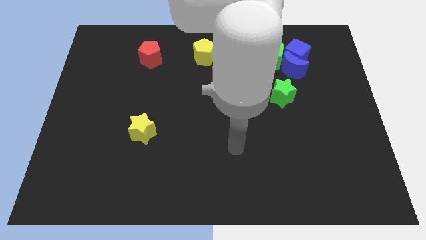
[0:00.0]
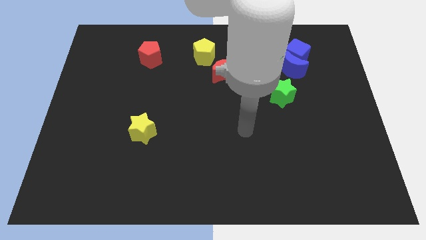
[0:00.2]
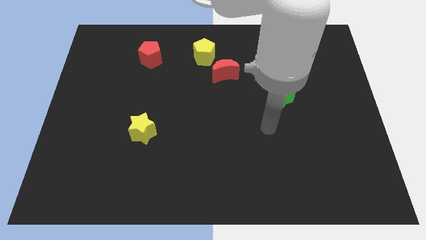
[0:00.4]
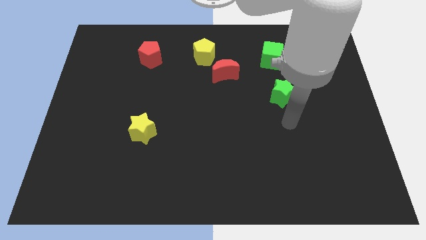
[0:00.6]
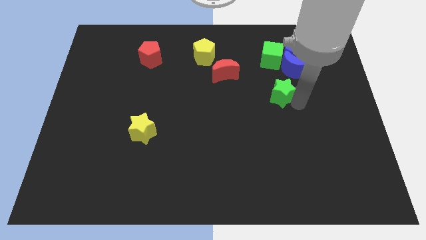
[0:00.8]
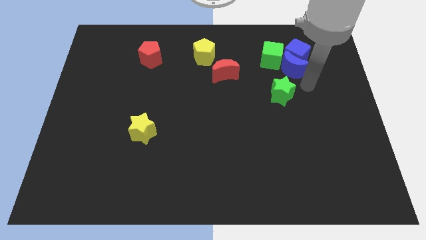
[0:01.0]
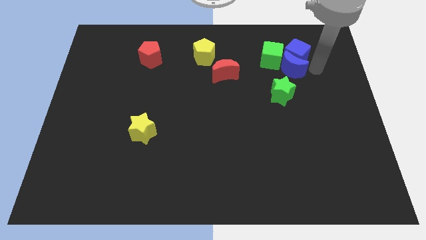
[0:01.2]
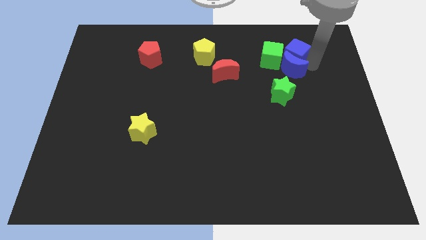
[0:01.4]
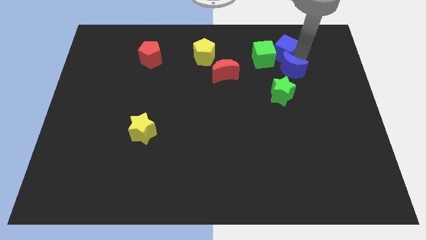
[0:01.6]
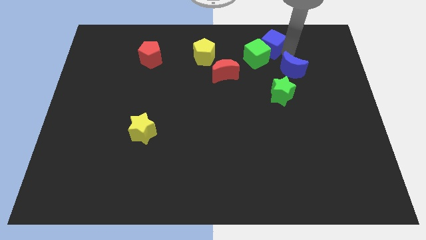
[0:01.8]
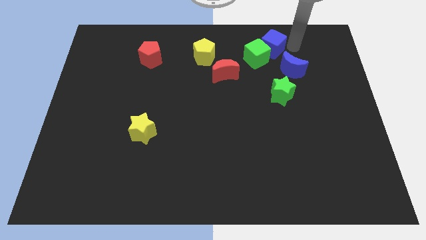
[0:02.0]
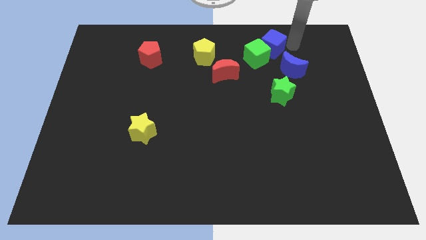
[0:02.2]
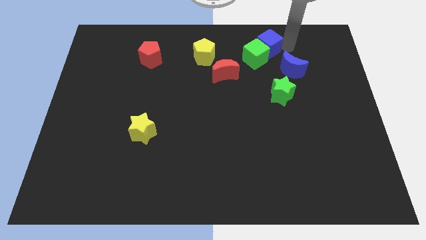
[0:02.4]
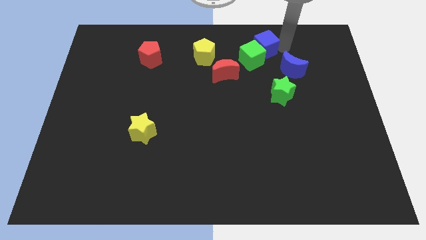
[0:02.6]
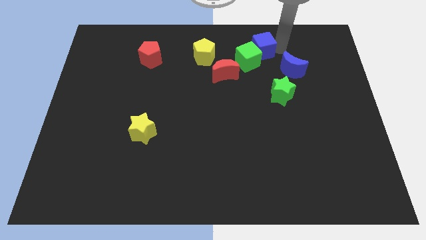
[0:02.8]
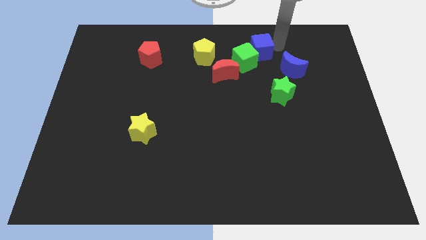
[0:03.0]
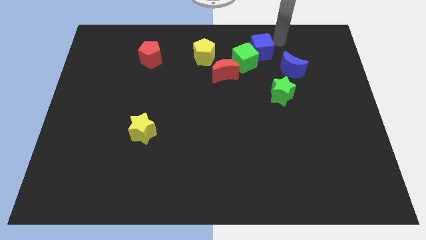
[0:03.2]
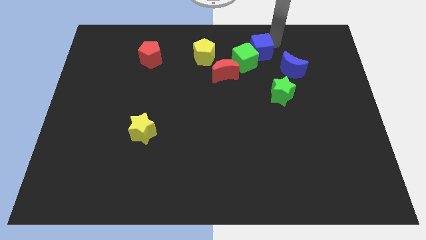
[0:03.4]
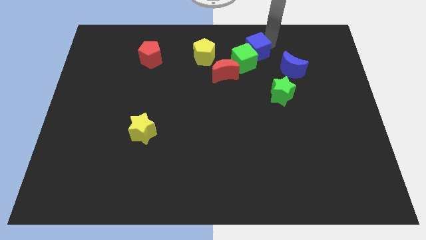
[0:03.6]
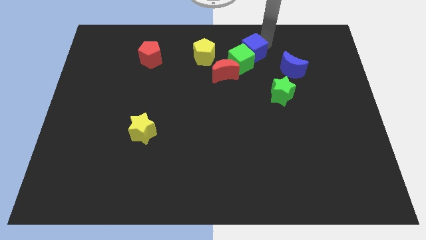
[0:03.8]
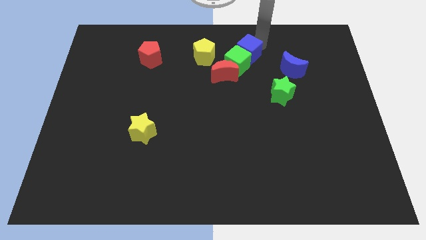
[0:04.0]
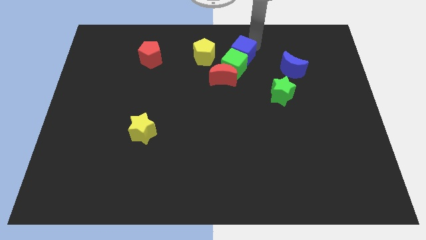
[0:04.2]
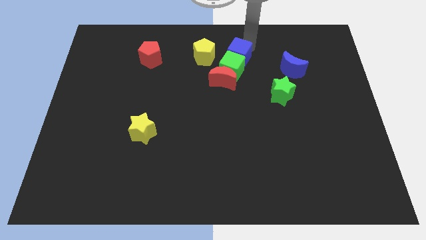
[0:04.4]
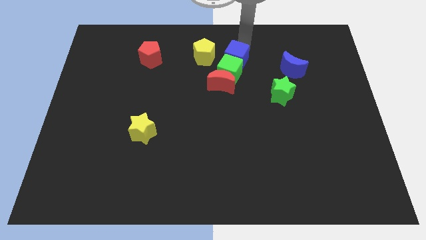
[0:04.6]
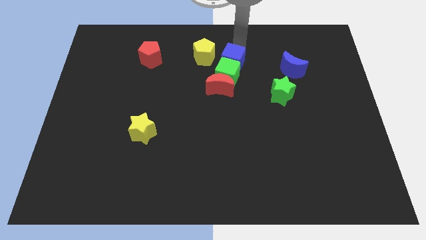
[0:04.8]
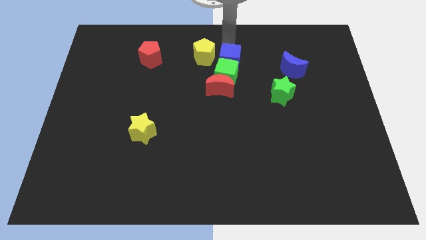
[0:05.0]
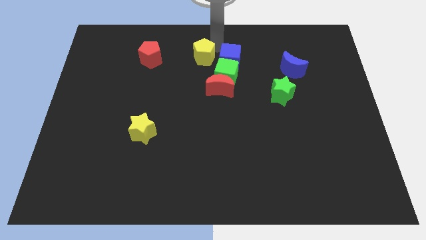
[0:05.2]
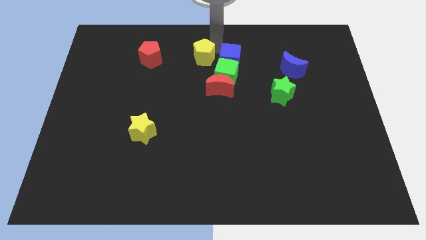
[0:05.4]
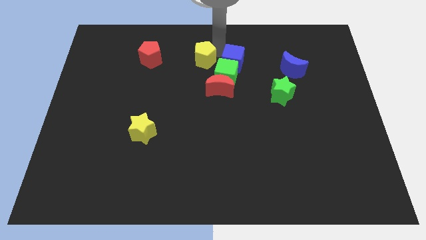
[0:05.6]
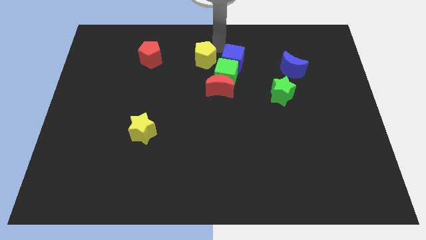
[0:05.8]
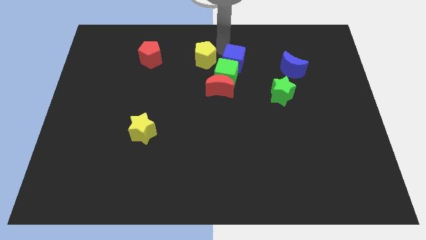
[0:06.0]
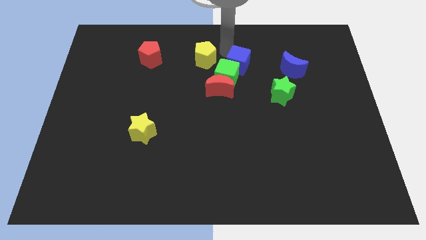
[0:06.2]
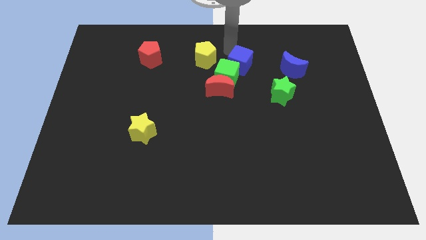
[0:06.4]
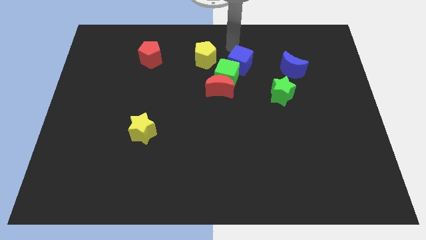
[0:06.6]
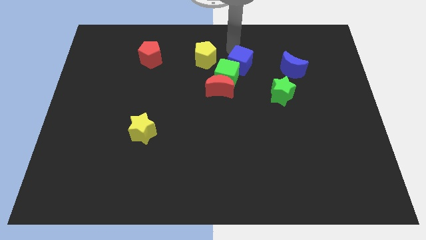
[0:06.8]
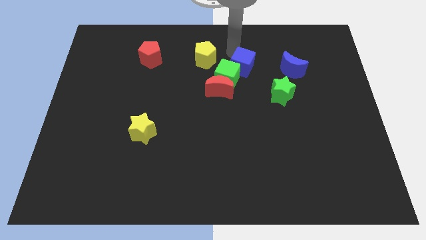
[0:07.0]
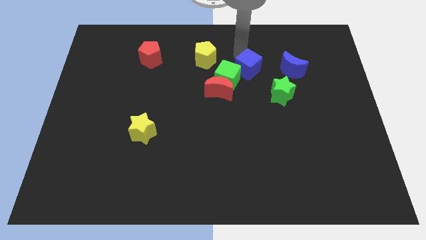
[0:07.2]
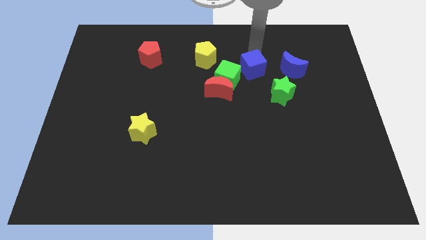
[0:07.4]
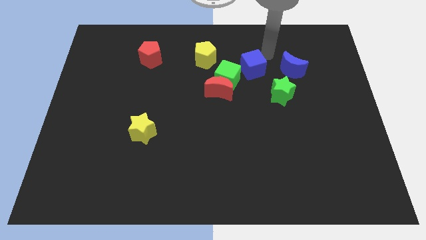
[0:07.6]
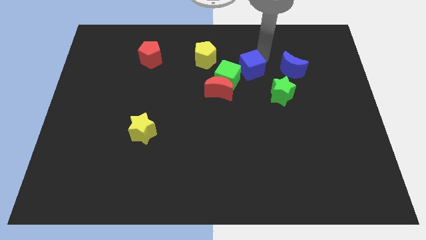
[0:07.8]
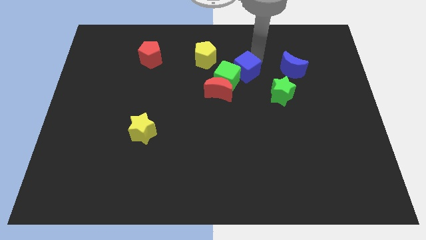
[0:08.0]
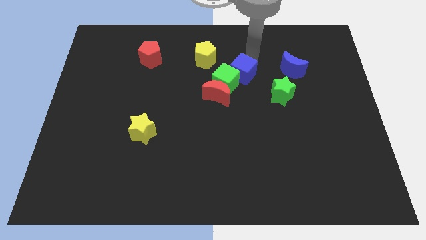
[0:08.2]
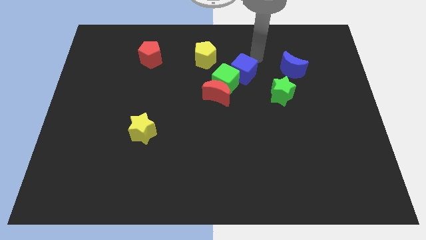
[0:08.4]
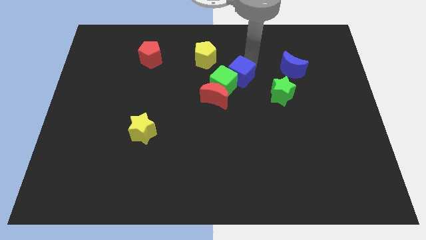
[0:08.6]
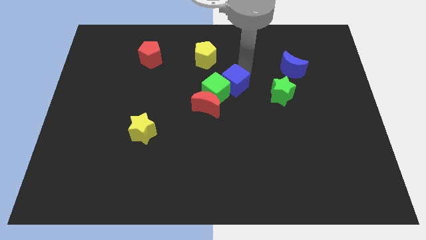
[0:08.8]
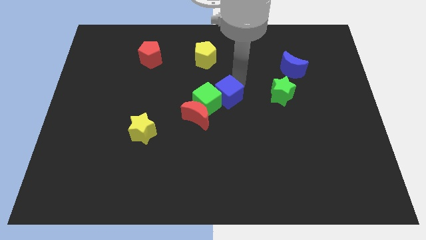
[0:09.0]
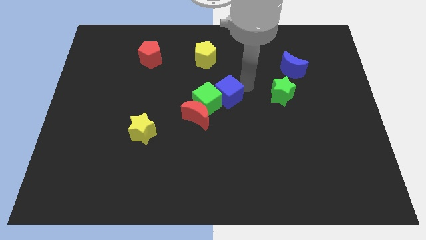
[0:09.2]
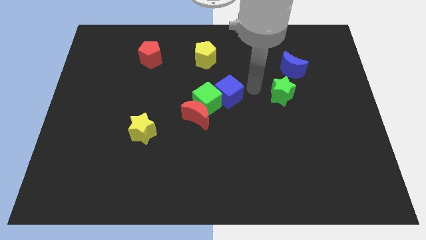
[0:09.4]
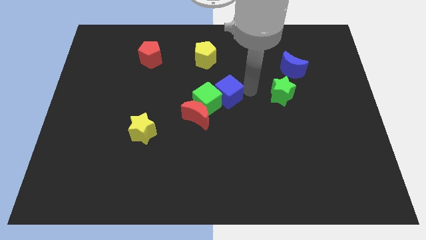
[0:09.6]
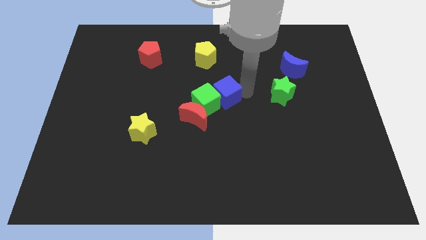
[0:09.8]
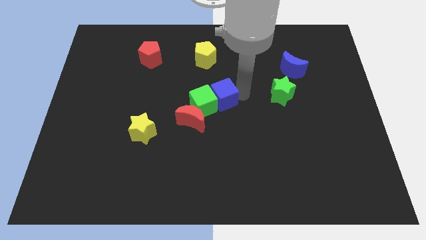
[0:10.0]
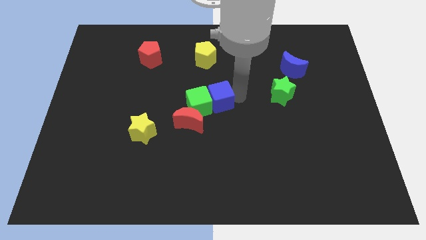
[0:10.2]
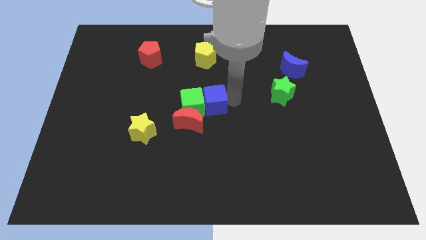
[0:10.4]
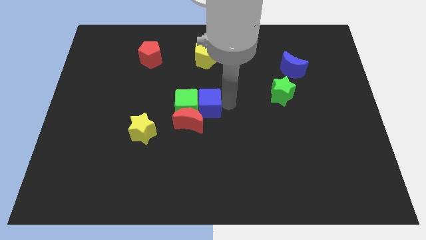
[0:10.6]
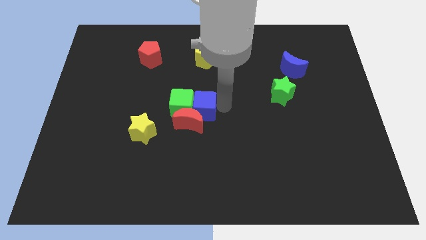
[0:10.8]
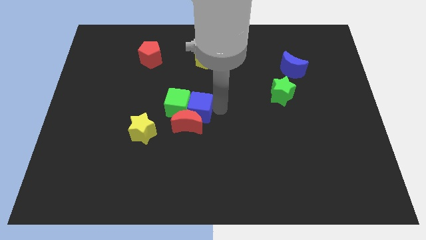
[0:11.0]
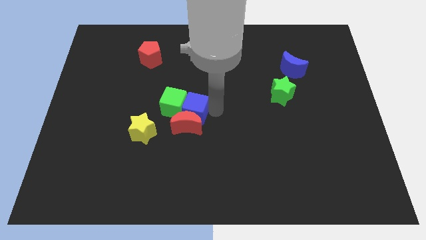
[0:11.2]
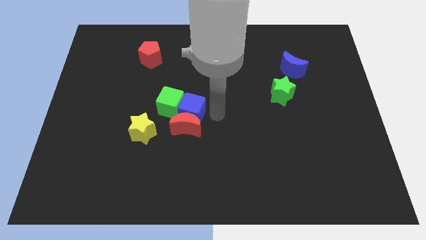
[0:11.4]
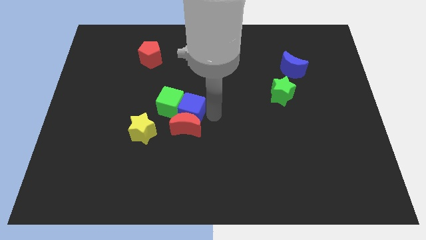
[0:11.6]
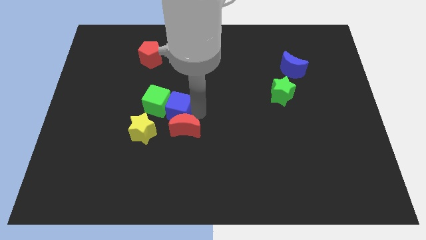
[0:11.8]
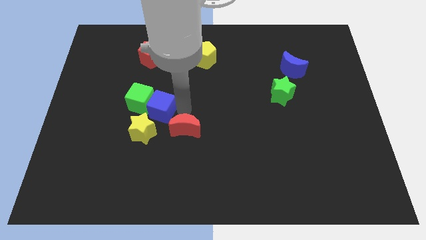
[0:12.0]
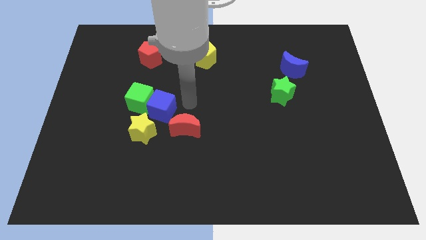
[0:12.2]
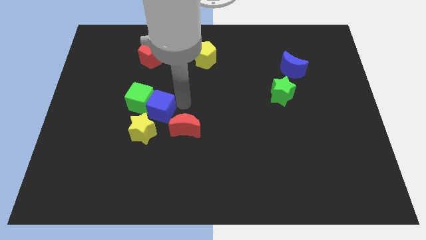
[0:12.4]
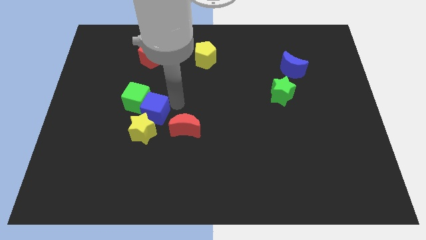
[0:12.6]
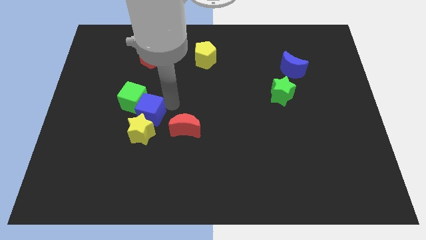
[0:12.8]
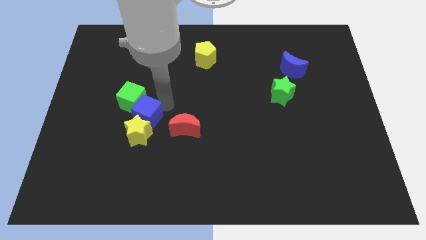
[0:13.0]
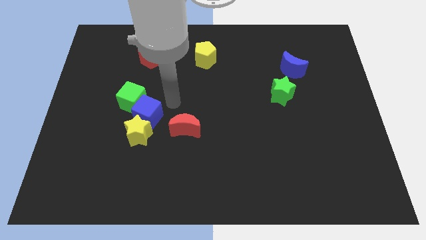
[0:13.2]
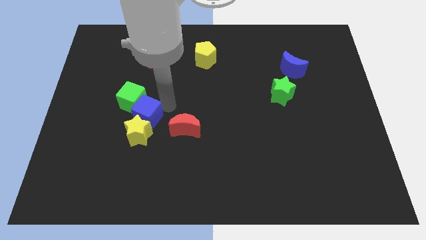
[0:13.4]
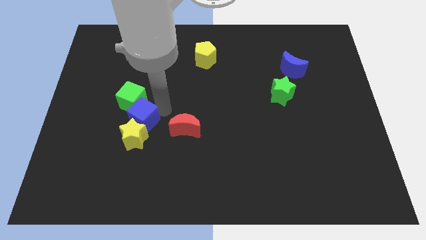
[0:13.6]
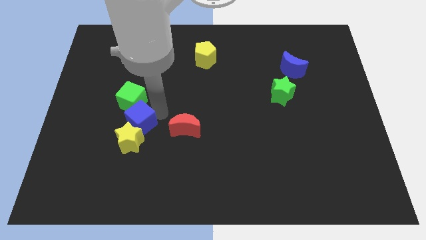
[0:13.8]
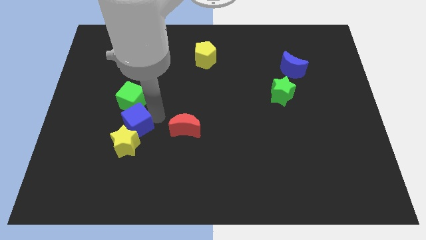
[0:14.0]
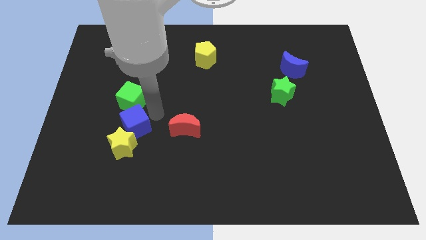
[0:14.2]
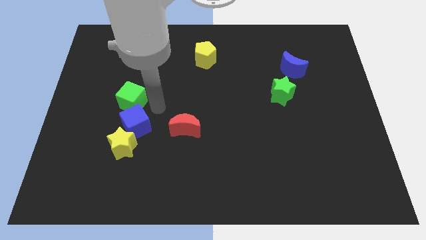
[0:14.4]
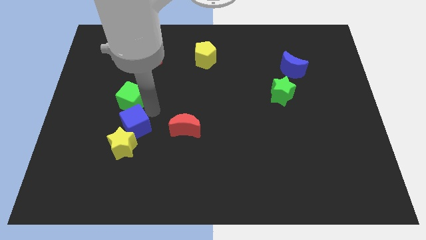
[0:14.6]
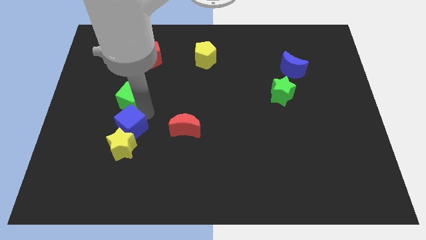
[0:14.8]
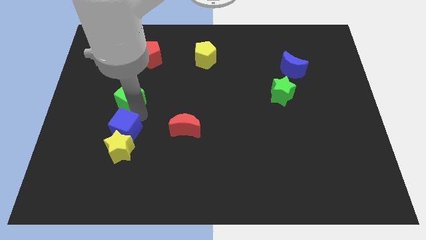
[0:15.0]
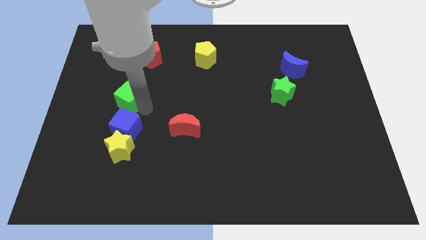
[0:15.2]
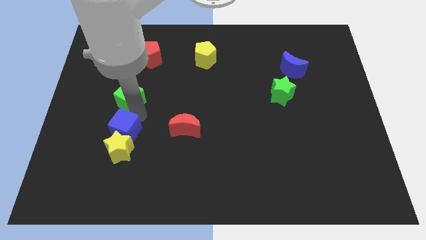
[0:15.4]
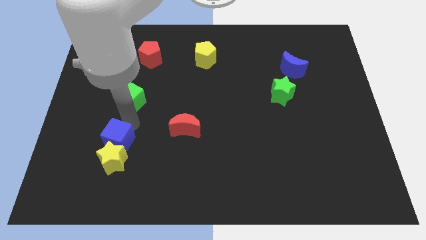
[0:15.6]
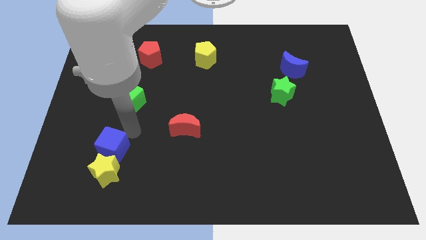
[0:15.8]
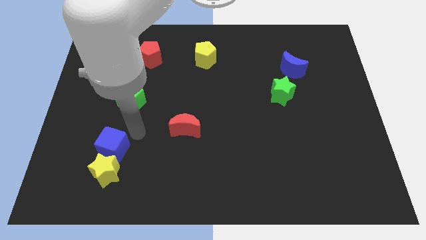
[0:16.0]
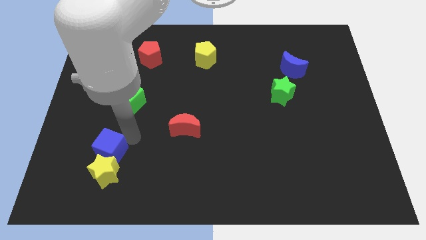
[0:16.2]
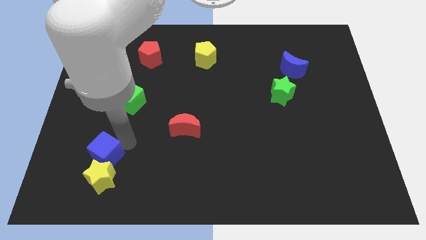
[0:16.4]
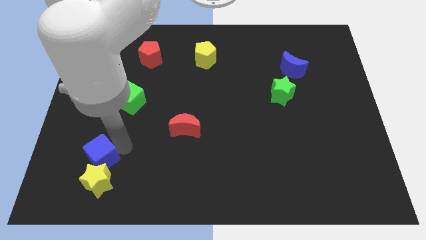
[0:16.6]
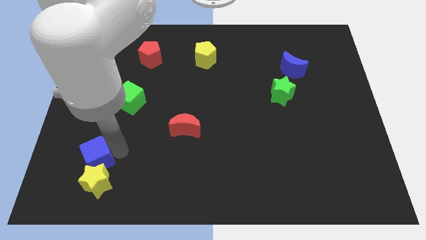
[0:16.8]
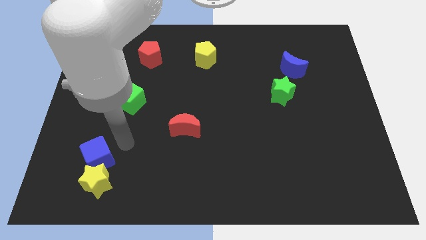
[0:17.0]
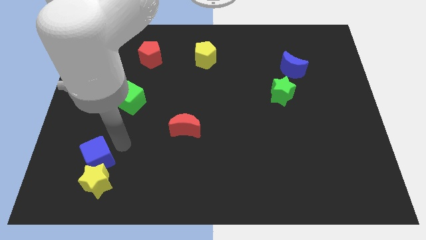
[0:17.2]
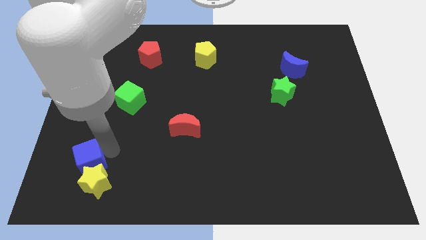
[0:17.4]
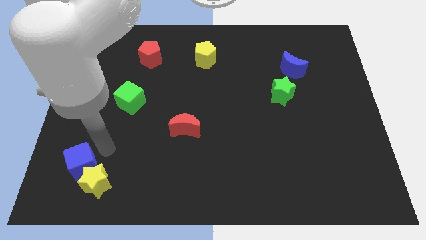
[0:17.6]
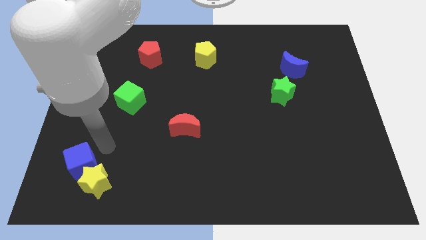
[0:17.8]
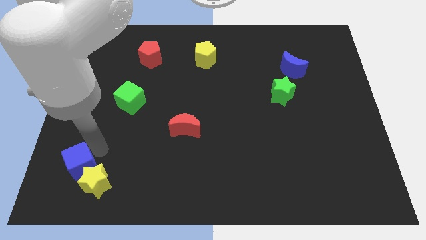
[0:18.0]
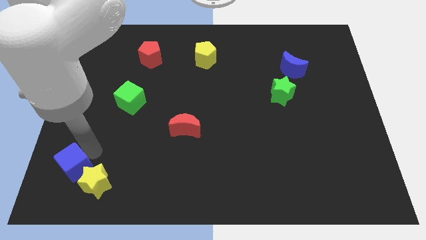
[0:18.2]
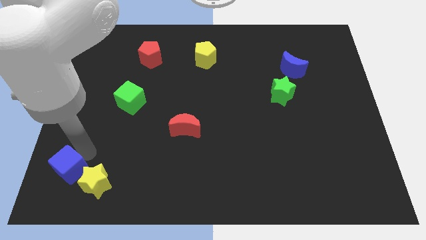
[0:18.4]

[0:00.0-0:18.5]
push the blue cube to the bottom left corner
